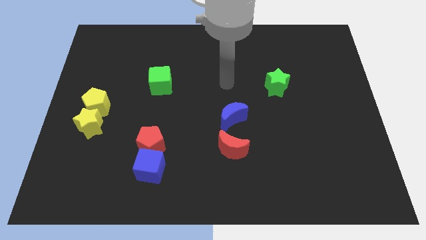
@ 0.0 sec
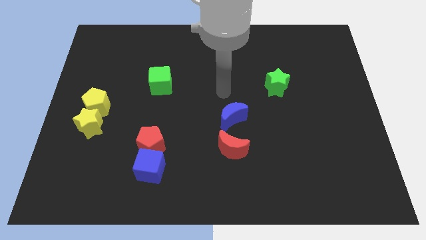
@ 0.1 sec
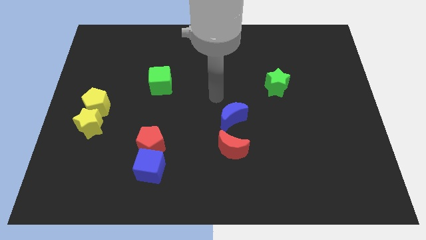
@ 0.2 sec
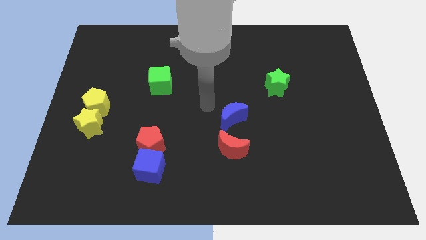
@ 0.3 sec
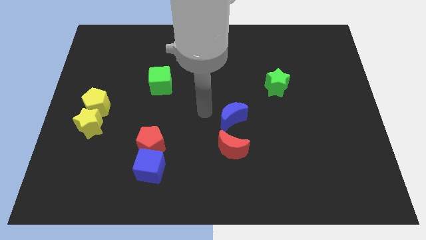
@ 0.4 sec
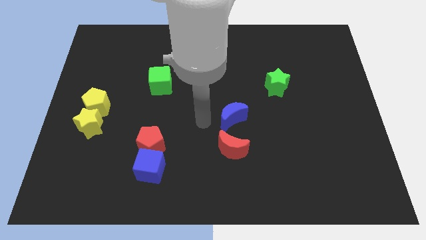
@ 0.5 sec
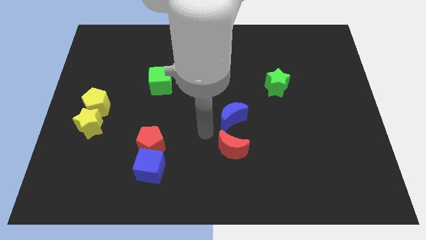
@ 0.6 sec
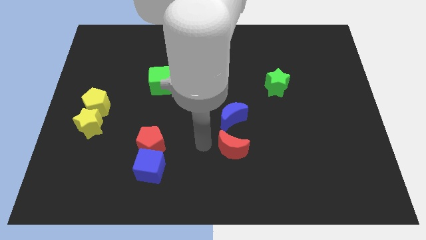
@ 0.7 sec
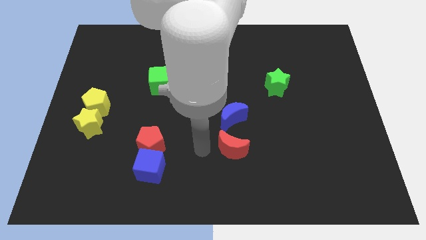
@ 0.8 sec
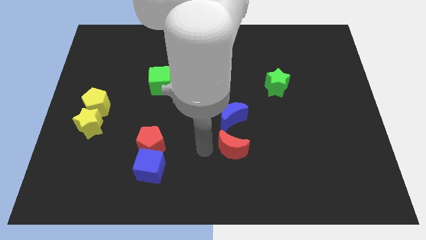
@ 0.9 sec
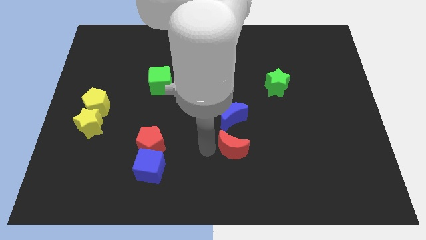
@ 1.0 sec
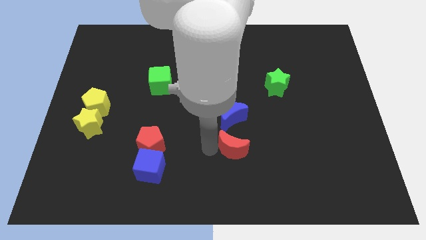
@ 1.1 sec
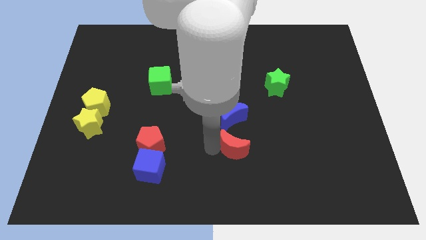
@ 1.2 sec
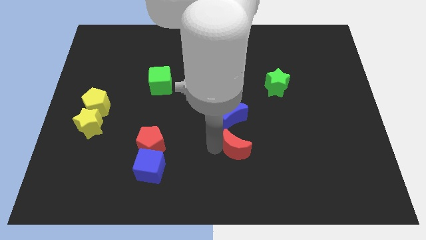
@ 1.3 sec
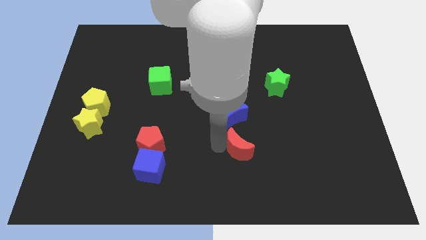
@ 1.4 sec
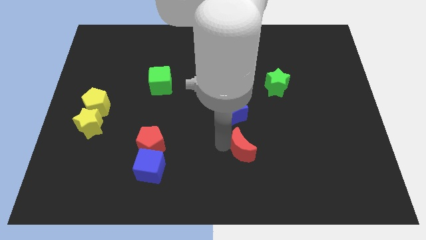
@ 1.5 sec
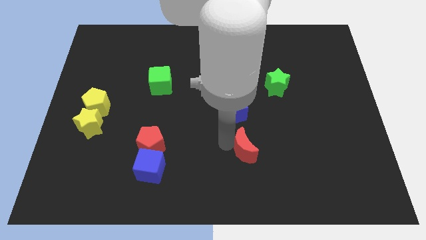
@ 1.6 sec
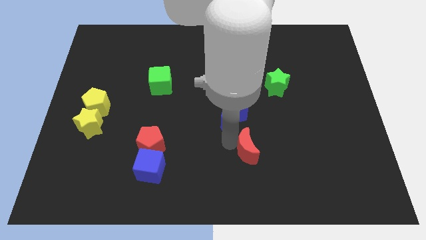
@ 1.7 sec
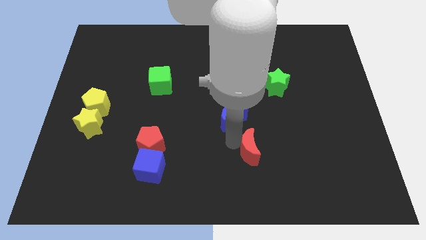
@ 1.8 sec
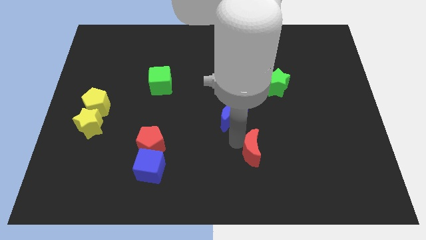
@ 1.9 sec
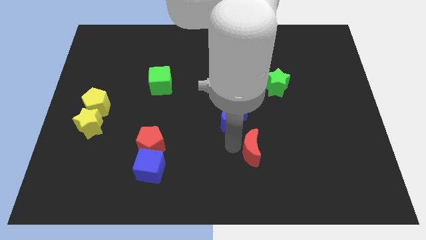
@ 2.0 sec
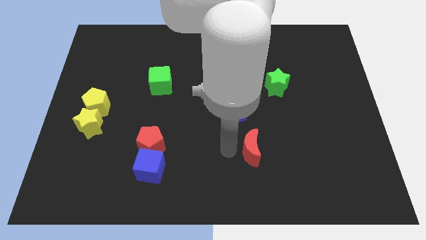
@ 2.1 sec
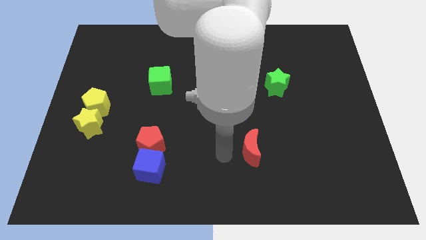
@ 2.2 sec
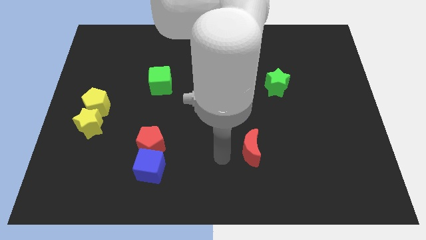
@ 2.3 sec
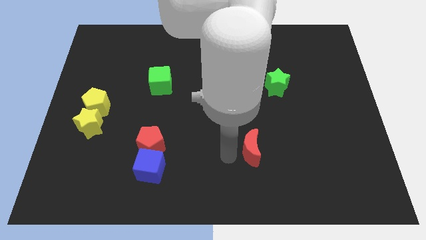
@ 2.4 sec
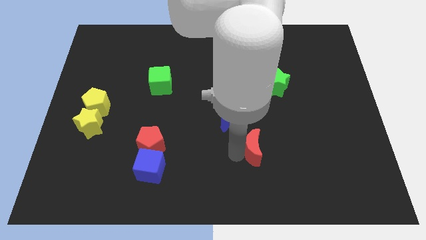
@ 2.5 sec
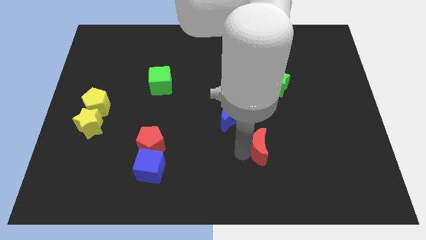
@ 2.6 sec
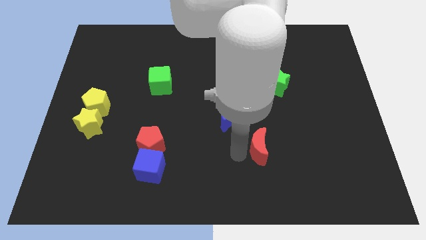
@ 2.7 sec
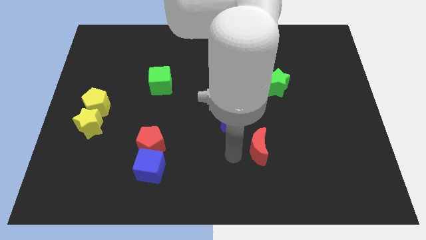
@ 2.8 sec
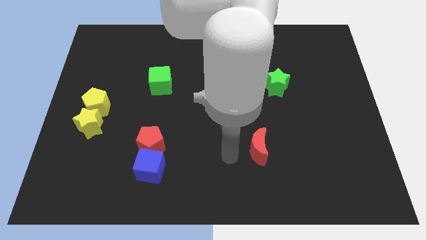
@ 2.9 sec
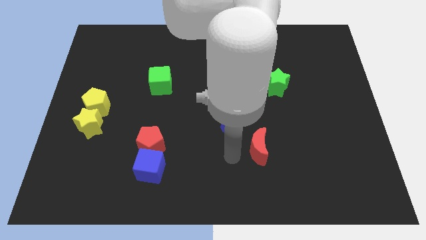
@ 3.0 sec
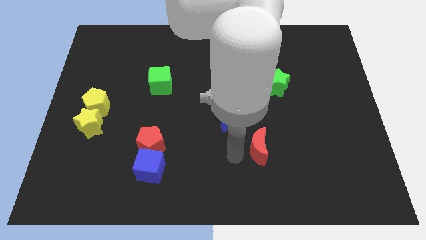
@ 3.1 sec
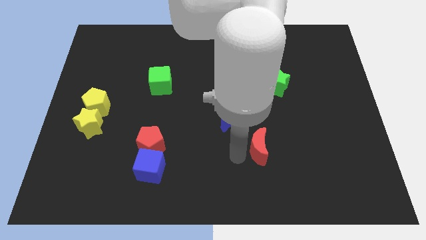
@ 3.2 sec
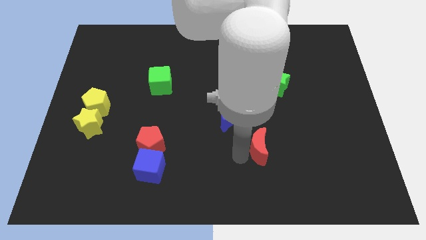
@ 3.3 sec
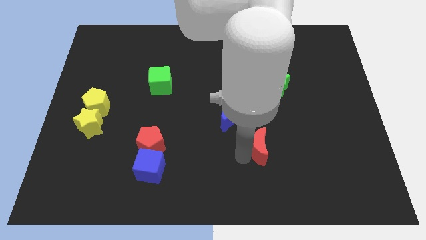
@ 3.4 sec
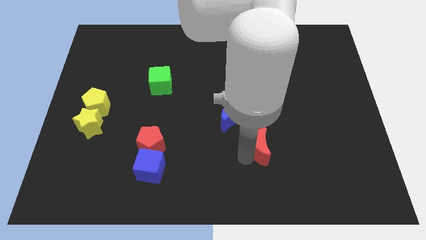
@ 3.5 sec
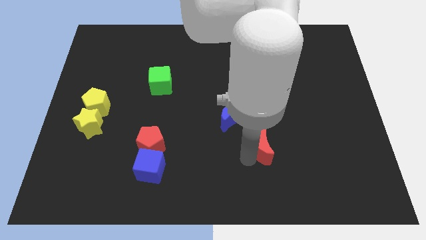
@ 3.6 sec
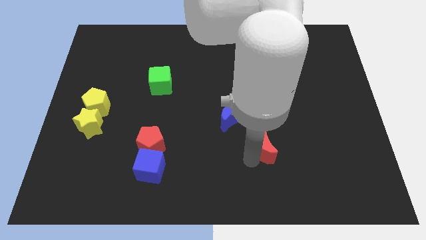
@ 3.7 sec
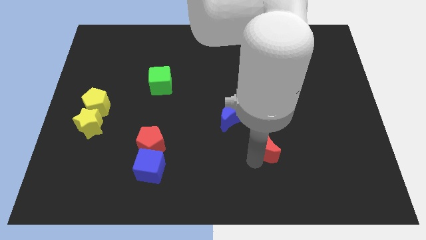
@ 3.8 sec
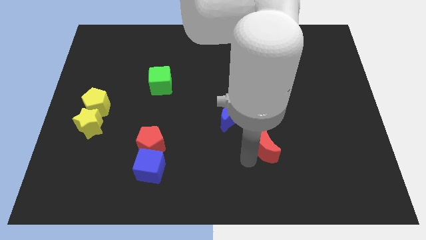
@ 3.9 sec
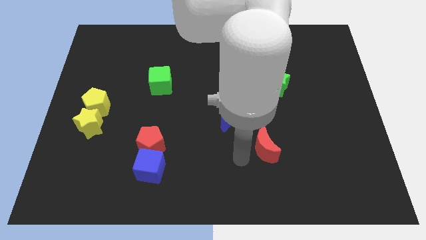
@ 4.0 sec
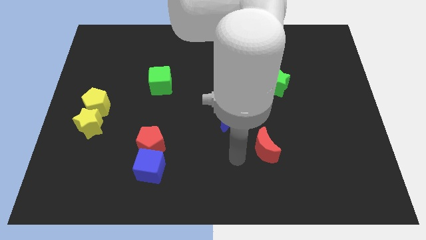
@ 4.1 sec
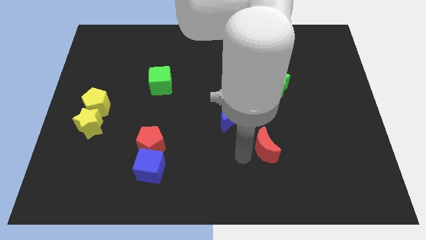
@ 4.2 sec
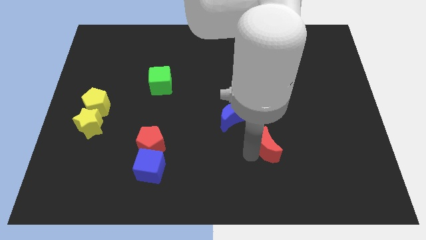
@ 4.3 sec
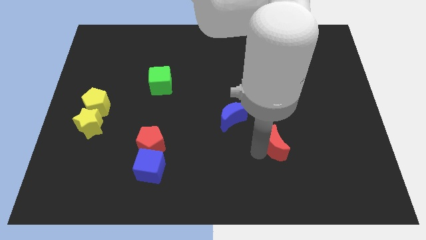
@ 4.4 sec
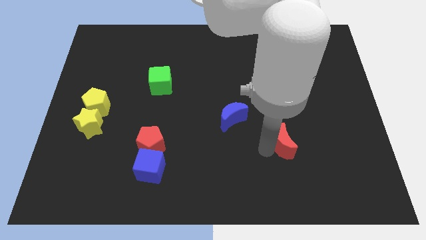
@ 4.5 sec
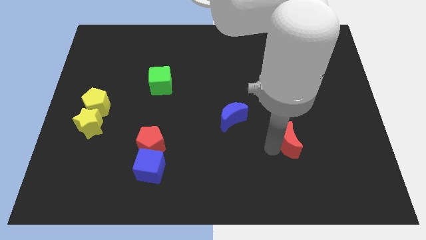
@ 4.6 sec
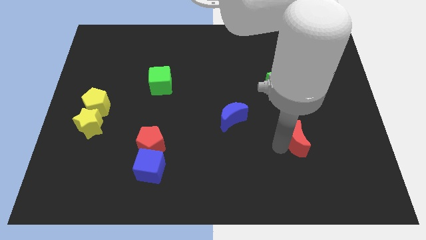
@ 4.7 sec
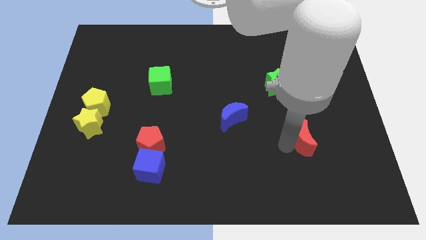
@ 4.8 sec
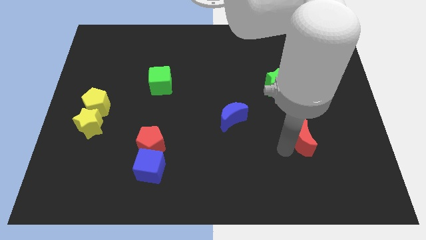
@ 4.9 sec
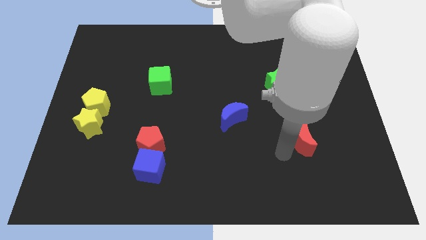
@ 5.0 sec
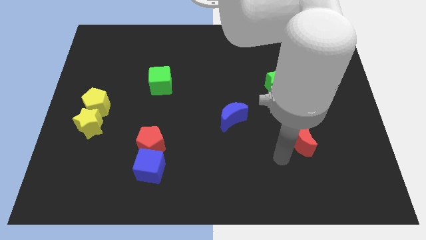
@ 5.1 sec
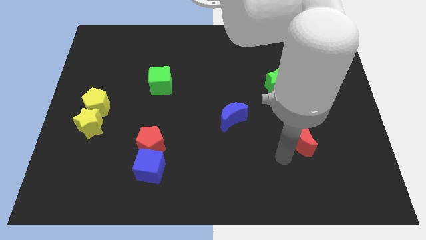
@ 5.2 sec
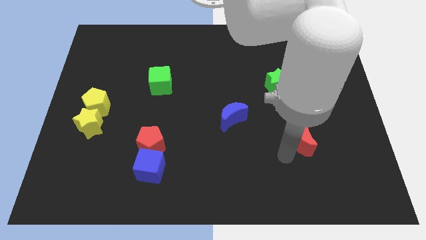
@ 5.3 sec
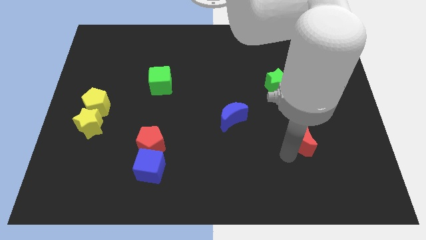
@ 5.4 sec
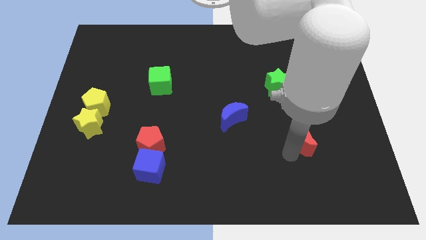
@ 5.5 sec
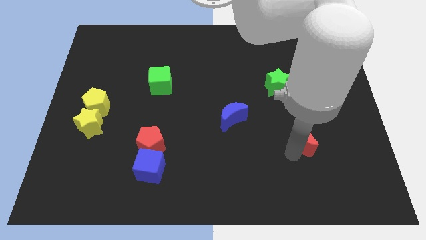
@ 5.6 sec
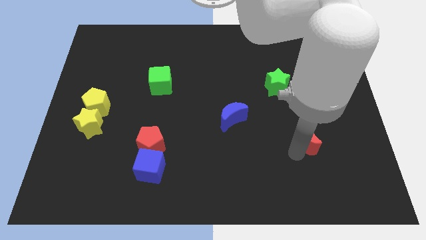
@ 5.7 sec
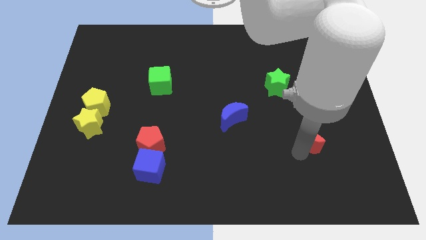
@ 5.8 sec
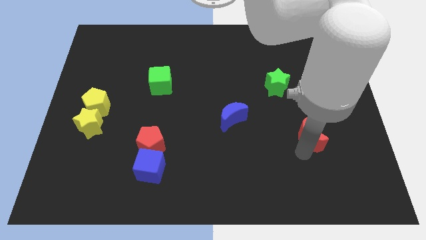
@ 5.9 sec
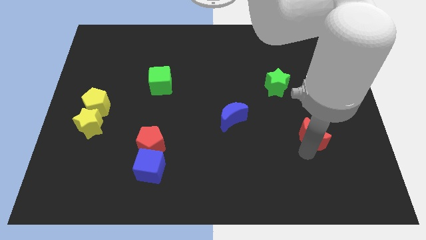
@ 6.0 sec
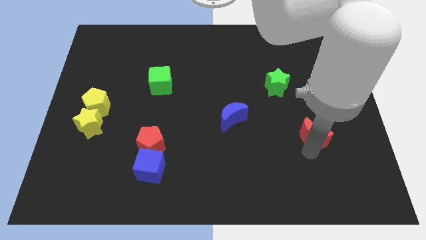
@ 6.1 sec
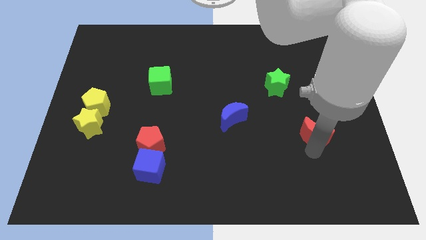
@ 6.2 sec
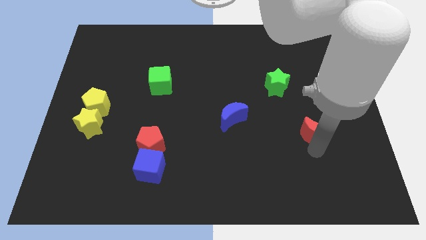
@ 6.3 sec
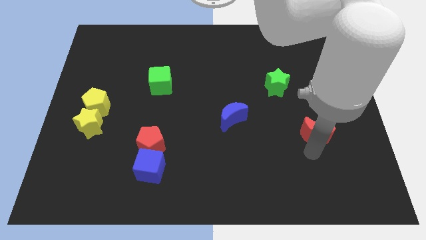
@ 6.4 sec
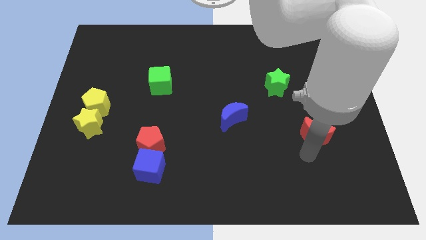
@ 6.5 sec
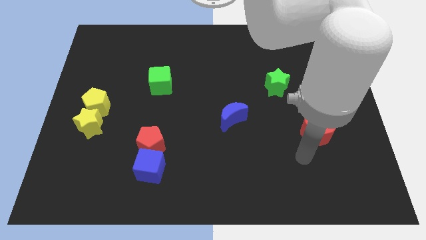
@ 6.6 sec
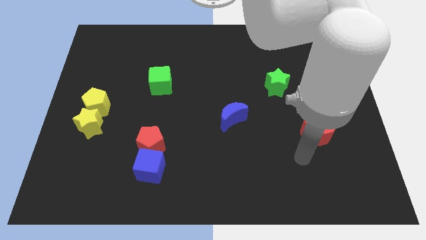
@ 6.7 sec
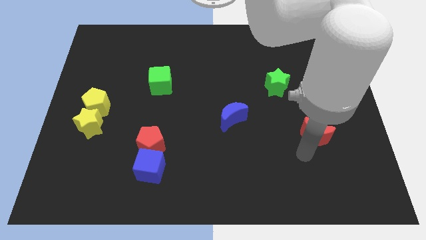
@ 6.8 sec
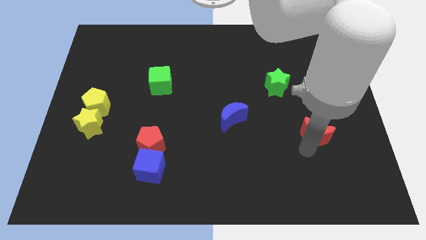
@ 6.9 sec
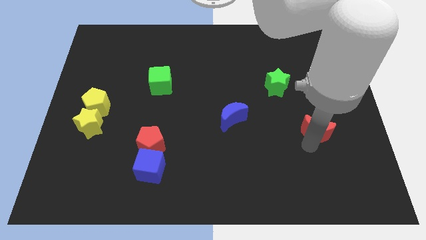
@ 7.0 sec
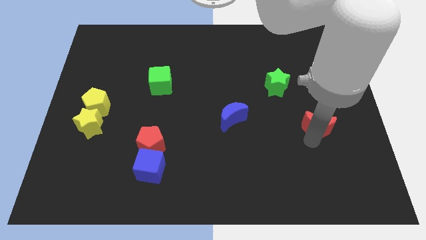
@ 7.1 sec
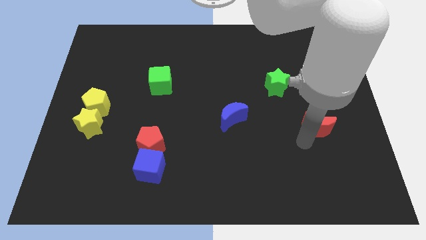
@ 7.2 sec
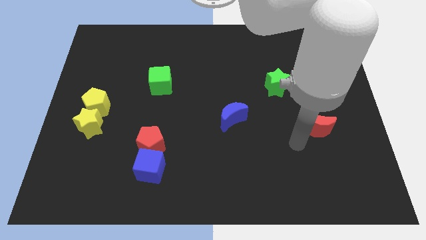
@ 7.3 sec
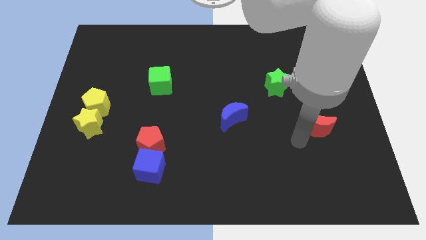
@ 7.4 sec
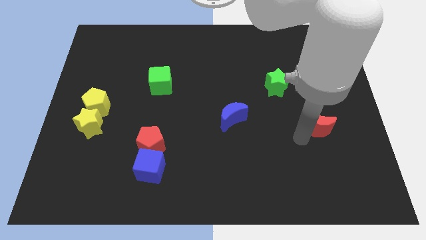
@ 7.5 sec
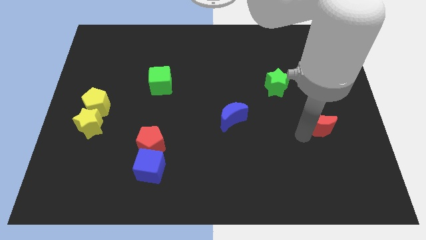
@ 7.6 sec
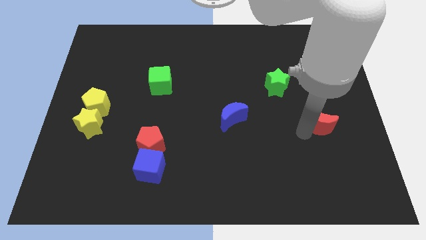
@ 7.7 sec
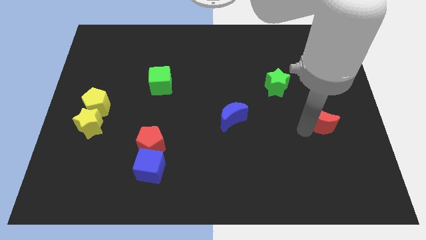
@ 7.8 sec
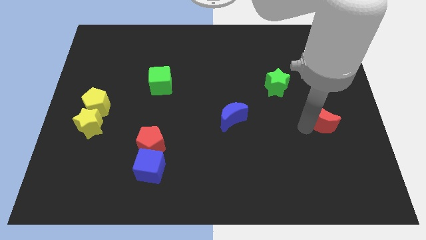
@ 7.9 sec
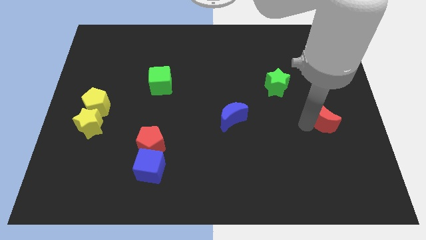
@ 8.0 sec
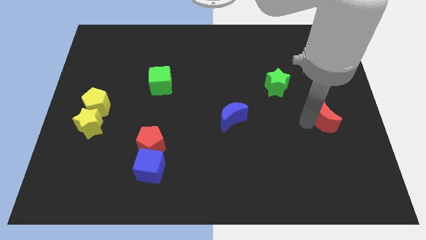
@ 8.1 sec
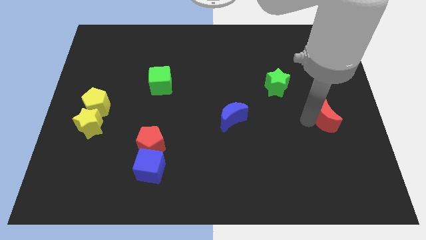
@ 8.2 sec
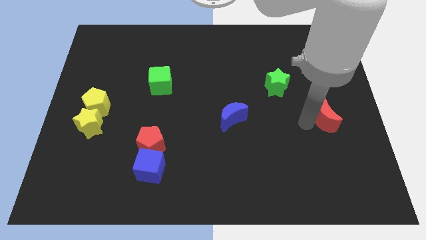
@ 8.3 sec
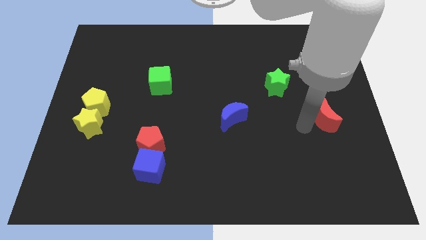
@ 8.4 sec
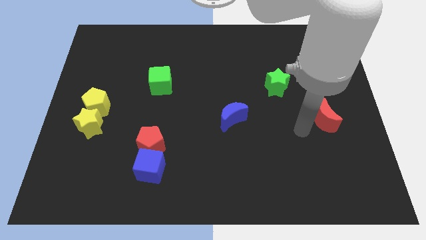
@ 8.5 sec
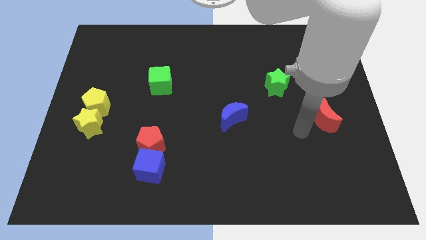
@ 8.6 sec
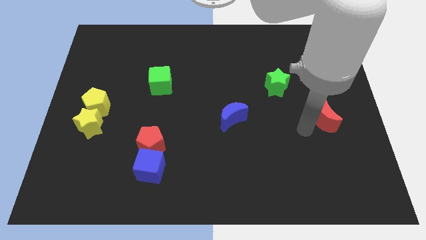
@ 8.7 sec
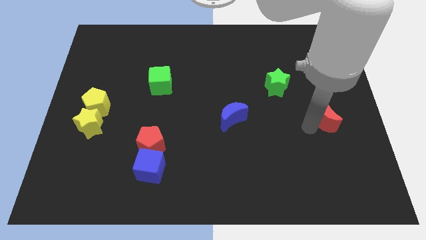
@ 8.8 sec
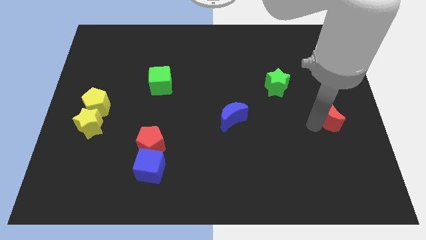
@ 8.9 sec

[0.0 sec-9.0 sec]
put the red moon to the right side of the board
